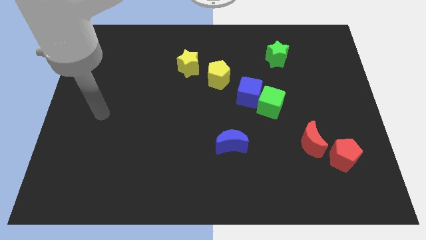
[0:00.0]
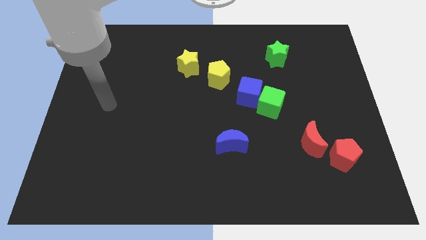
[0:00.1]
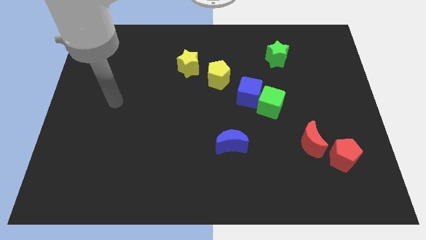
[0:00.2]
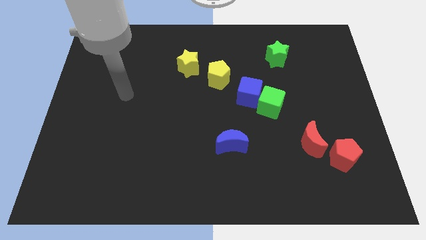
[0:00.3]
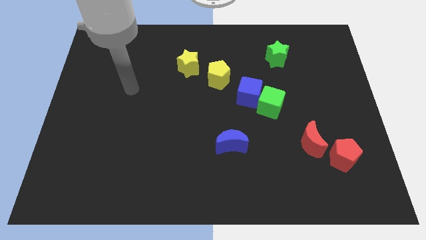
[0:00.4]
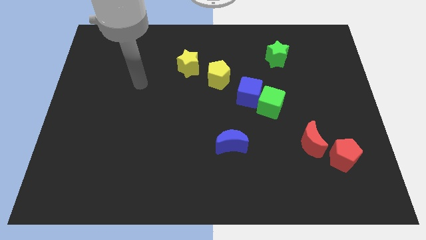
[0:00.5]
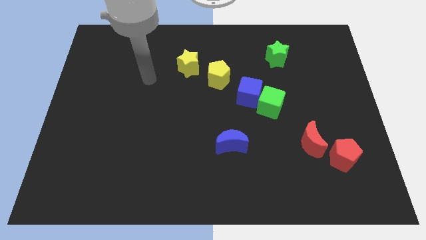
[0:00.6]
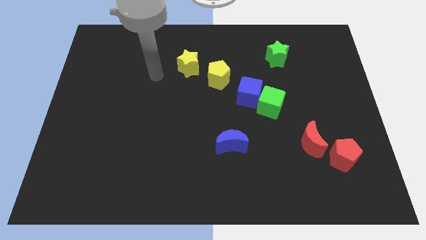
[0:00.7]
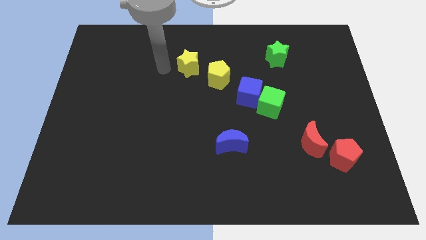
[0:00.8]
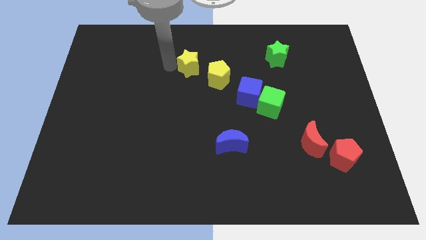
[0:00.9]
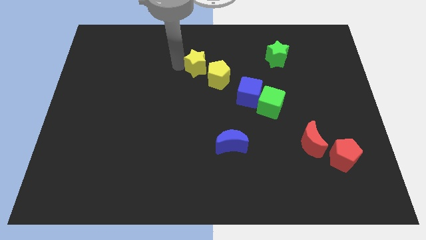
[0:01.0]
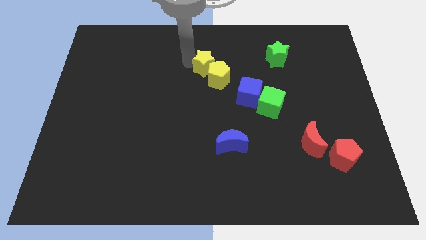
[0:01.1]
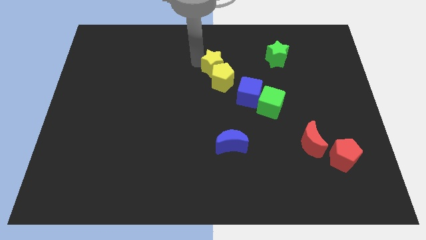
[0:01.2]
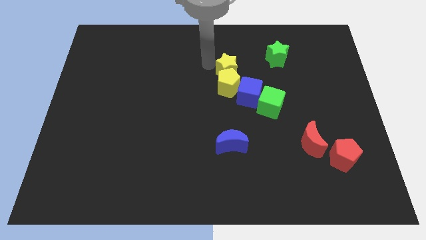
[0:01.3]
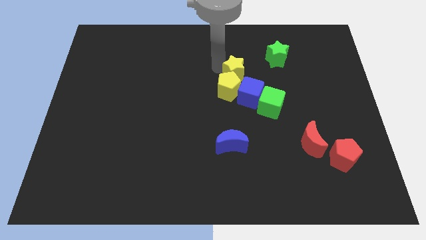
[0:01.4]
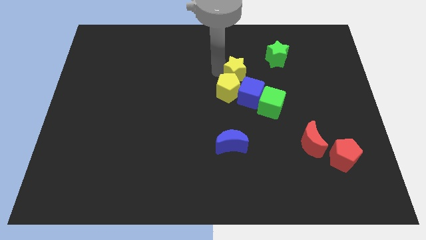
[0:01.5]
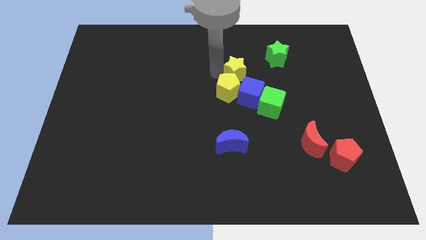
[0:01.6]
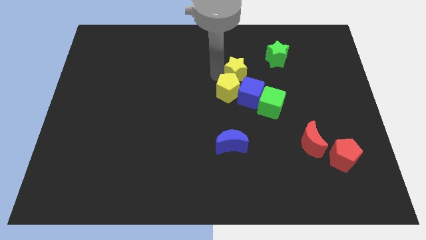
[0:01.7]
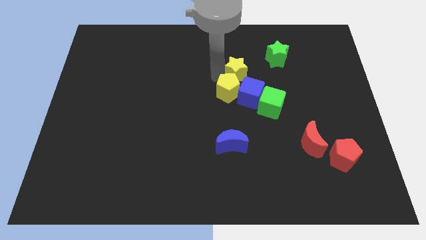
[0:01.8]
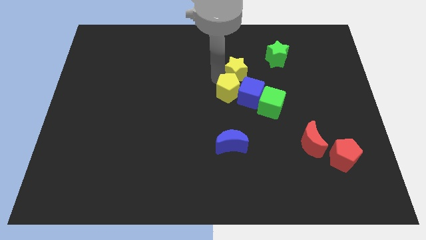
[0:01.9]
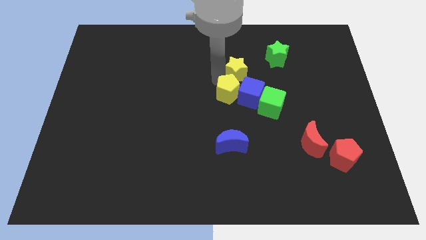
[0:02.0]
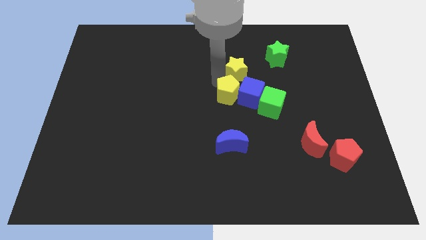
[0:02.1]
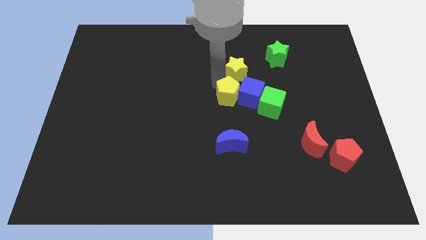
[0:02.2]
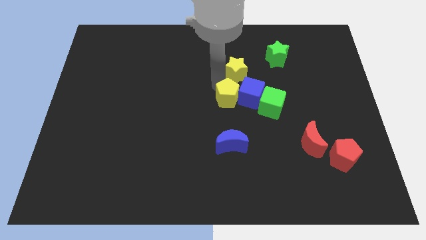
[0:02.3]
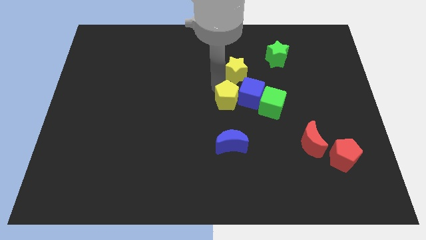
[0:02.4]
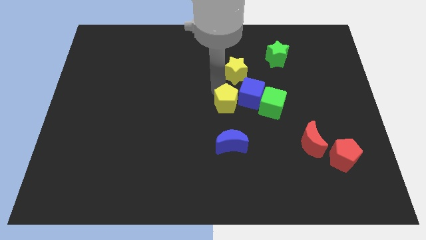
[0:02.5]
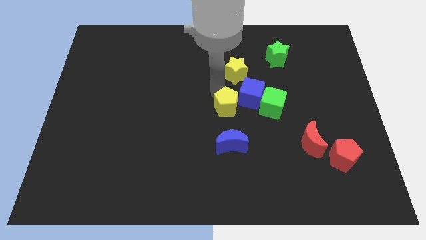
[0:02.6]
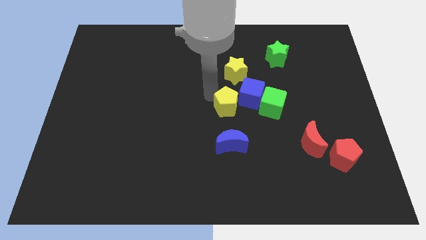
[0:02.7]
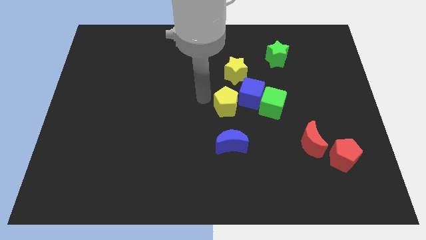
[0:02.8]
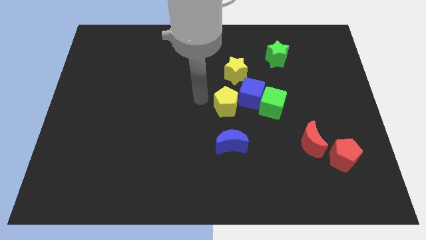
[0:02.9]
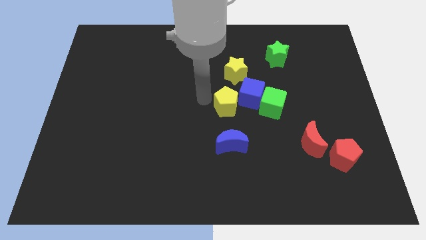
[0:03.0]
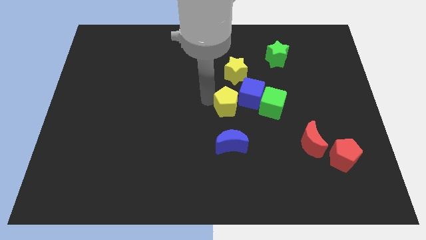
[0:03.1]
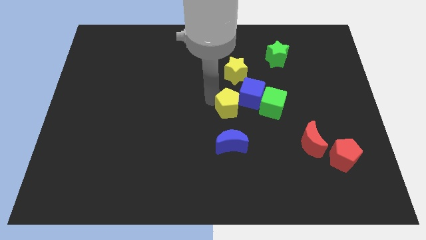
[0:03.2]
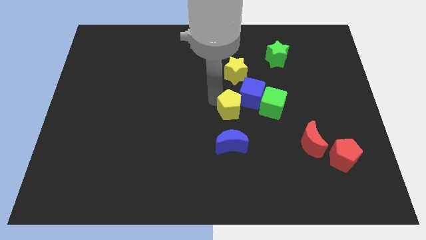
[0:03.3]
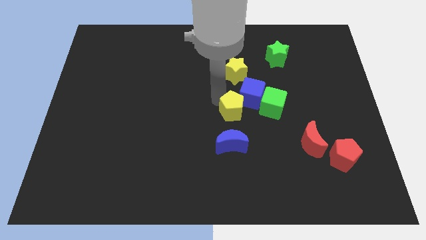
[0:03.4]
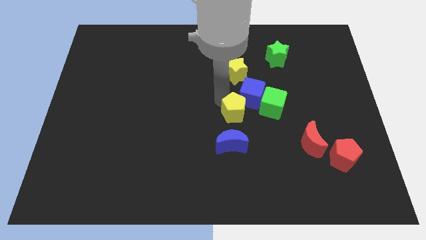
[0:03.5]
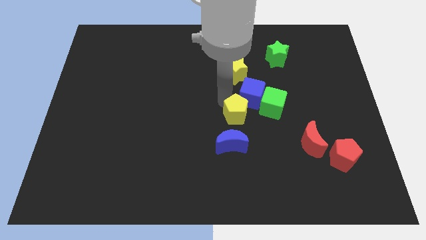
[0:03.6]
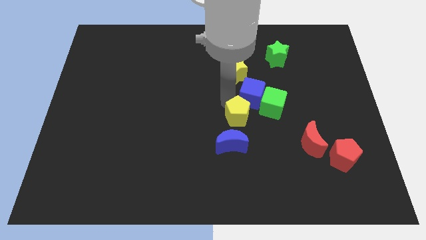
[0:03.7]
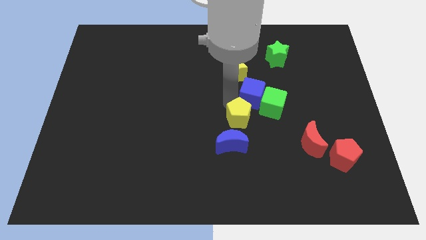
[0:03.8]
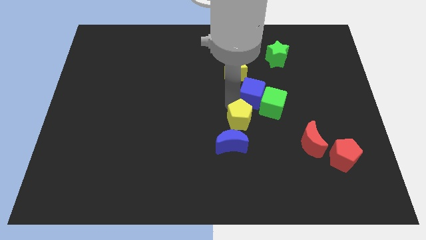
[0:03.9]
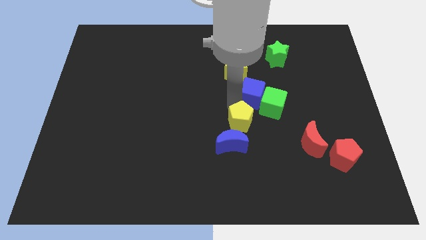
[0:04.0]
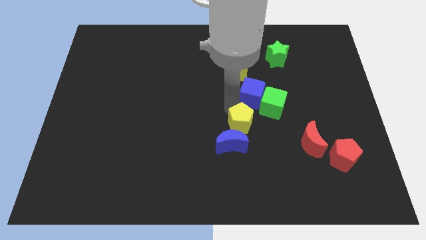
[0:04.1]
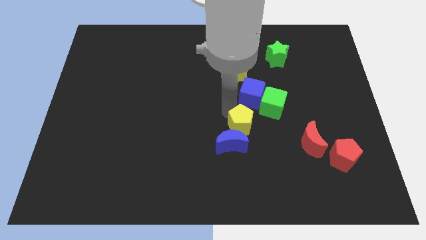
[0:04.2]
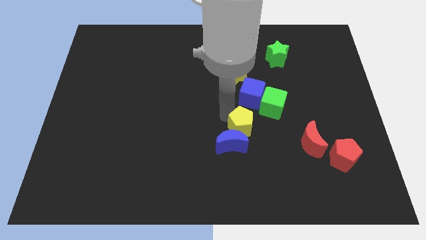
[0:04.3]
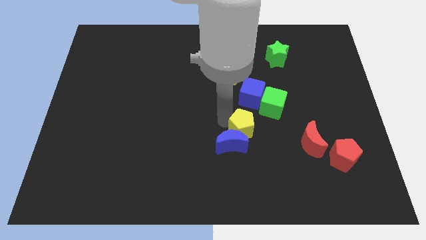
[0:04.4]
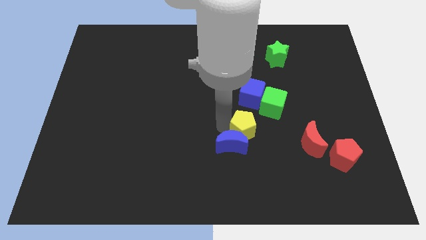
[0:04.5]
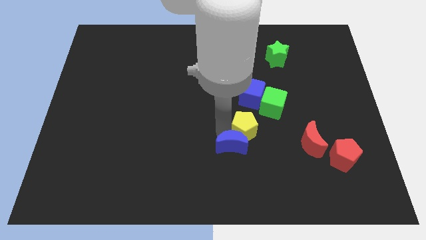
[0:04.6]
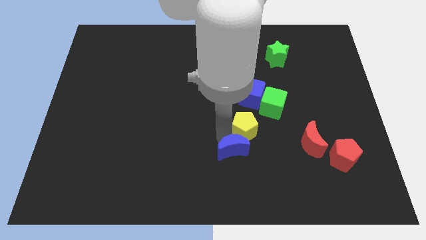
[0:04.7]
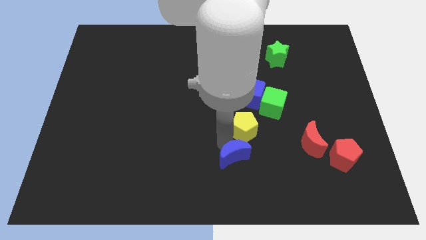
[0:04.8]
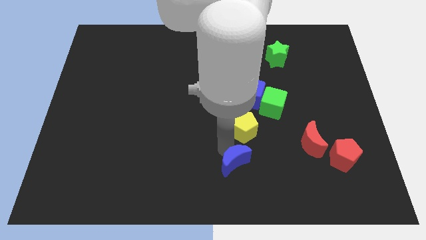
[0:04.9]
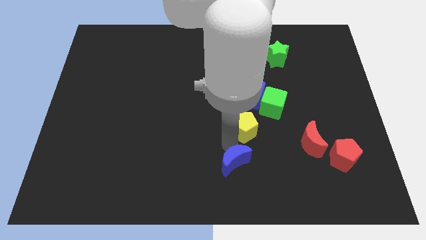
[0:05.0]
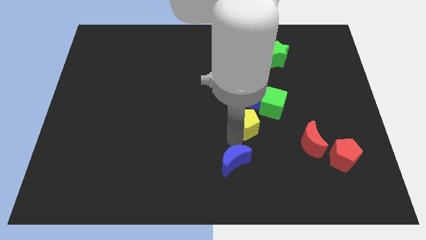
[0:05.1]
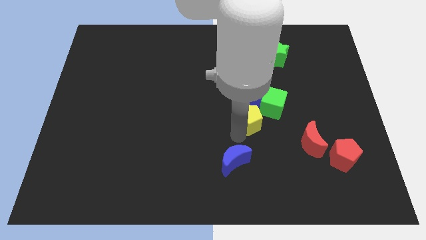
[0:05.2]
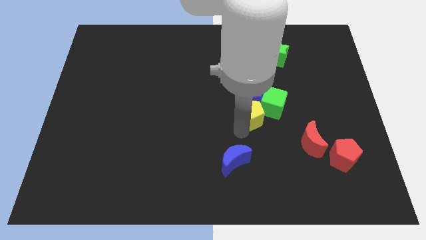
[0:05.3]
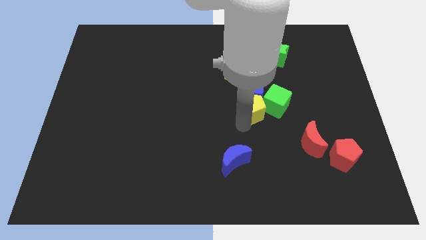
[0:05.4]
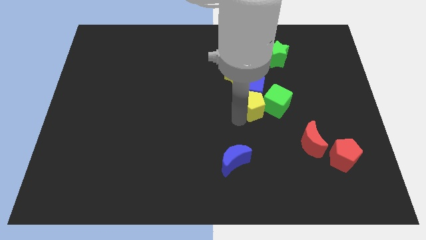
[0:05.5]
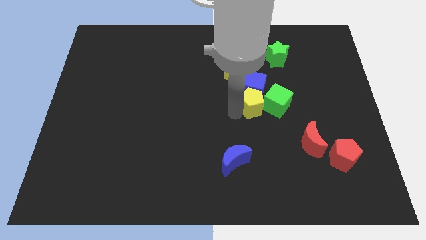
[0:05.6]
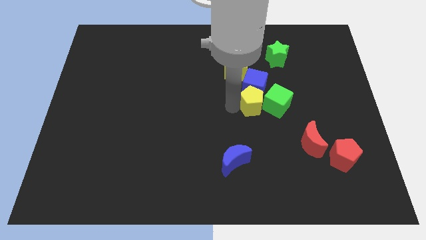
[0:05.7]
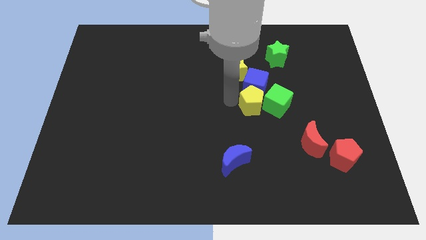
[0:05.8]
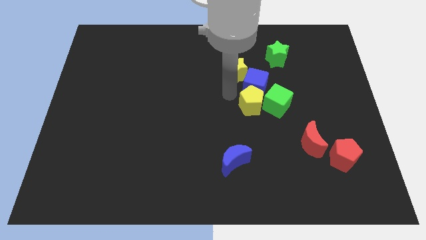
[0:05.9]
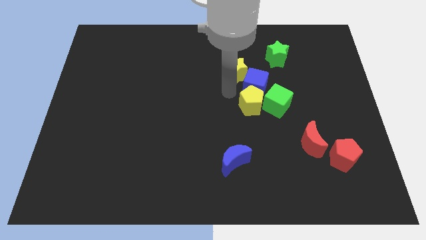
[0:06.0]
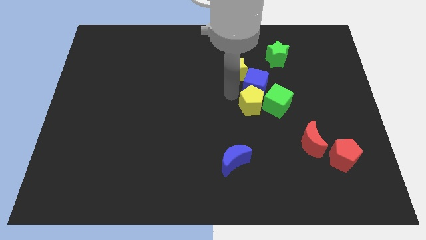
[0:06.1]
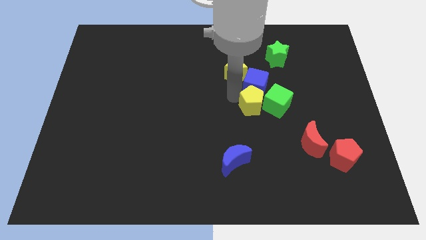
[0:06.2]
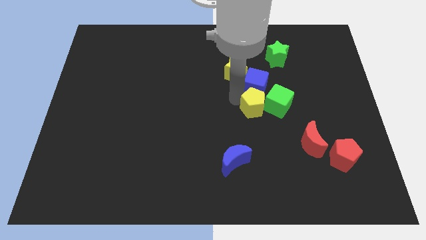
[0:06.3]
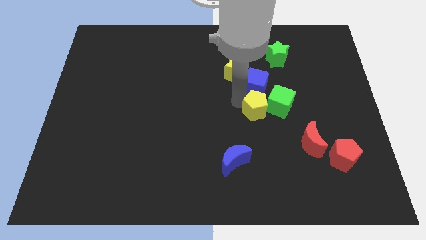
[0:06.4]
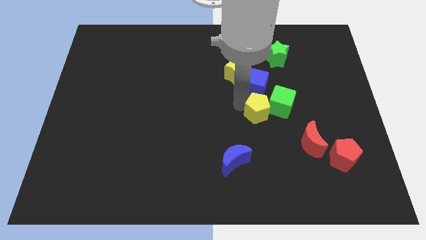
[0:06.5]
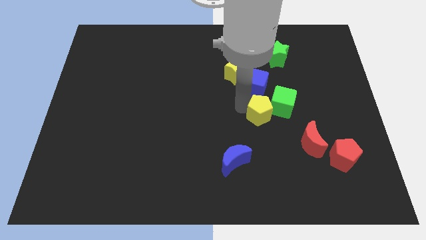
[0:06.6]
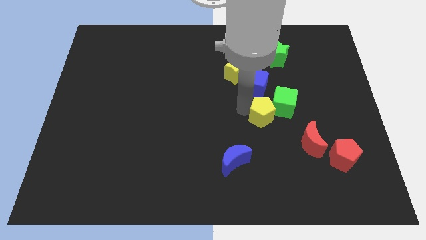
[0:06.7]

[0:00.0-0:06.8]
push the yellow pentagon to the top left side of the red moon
